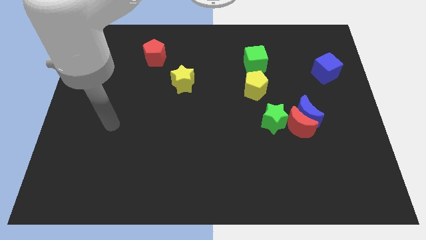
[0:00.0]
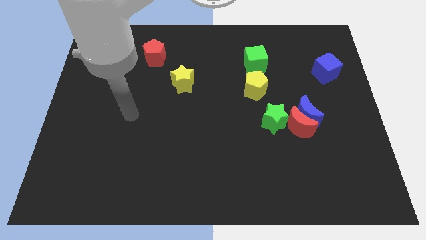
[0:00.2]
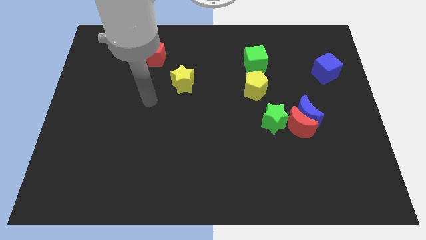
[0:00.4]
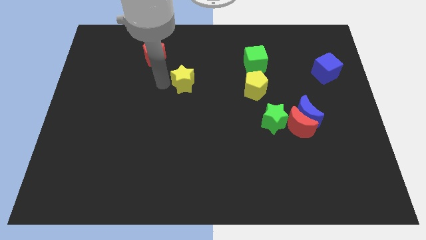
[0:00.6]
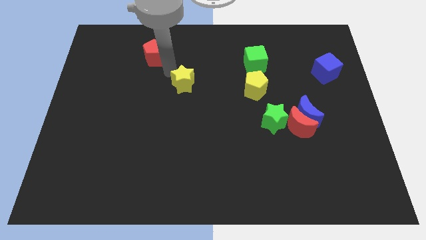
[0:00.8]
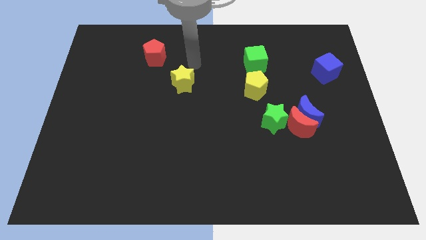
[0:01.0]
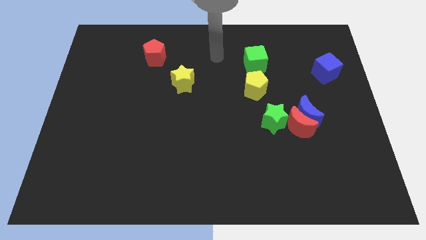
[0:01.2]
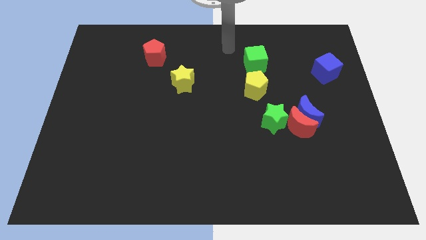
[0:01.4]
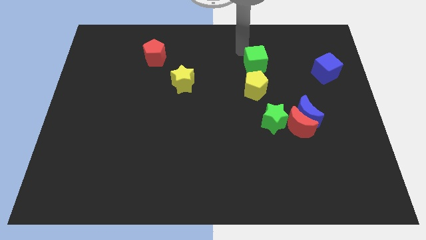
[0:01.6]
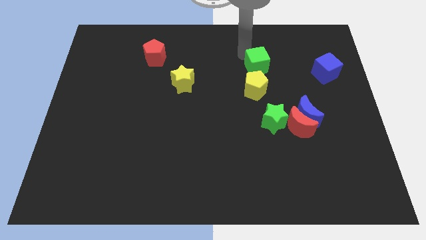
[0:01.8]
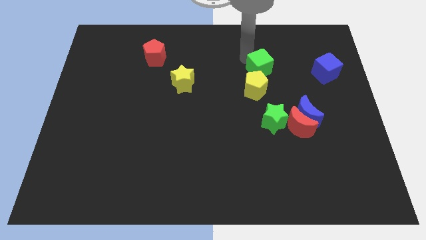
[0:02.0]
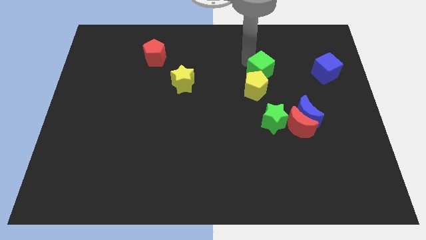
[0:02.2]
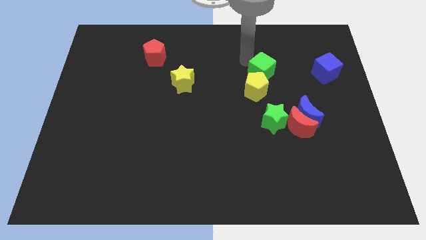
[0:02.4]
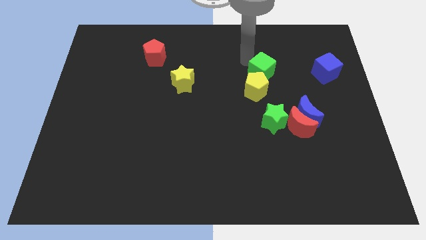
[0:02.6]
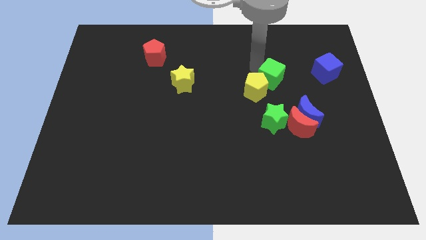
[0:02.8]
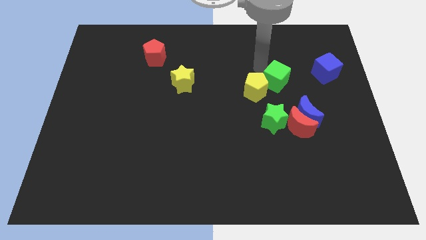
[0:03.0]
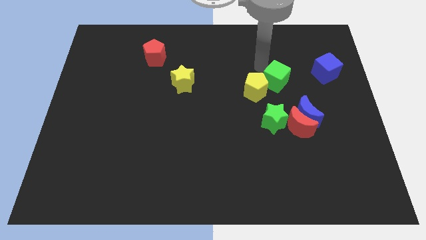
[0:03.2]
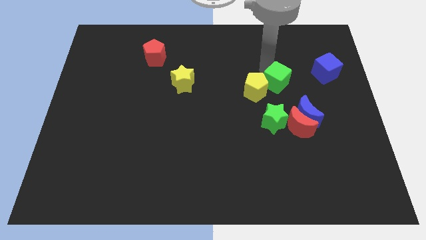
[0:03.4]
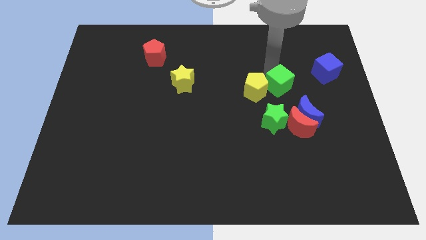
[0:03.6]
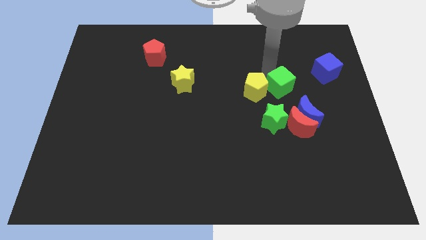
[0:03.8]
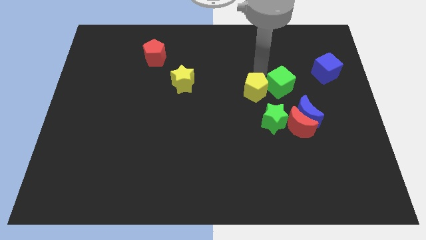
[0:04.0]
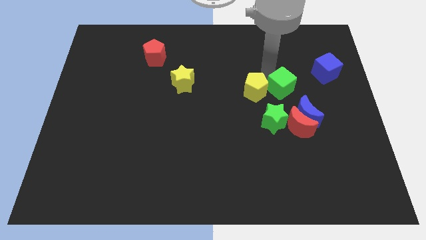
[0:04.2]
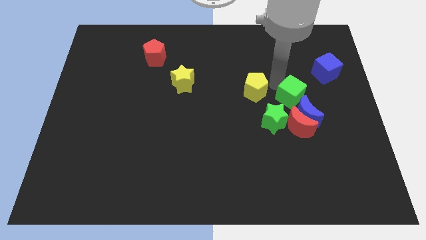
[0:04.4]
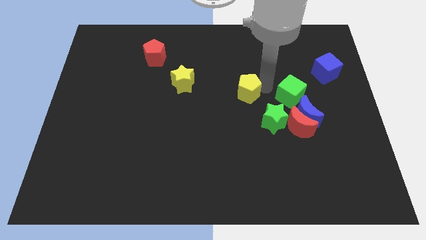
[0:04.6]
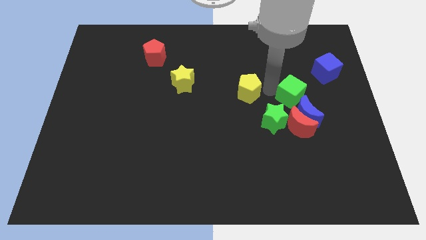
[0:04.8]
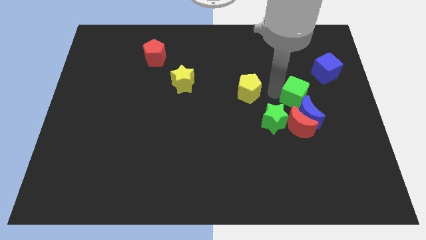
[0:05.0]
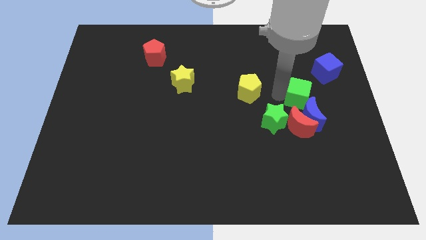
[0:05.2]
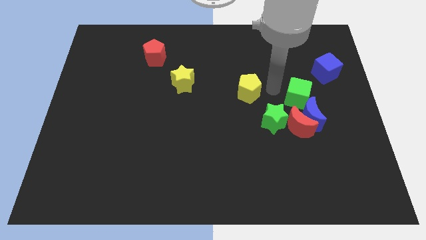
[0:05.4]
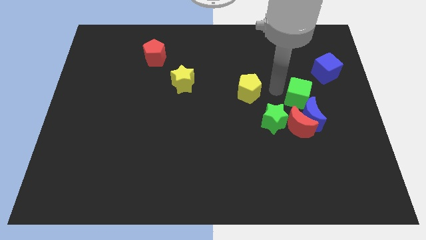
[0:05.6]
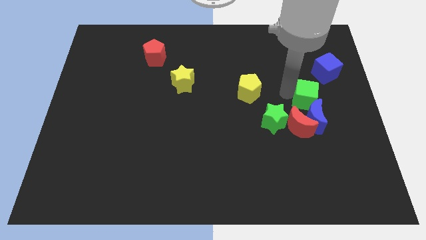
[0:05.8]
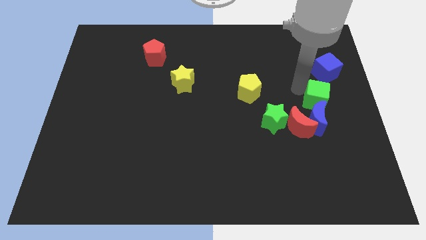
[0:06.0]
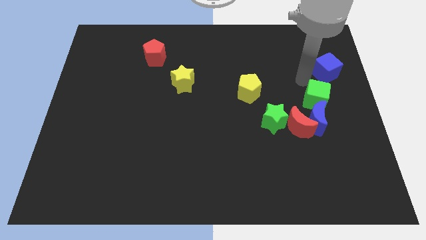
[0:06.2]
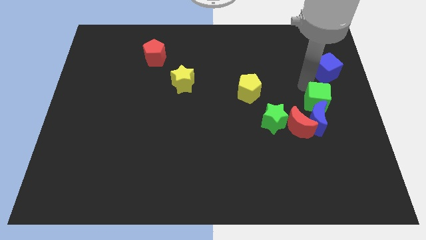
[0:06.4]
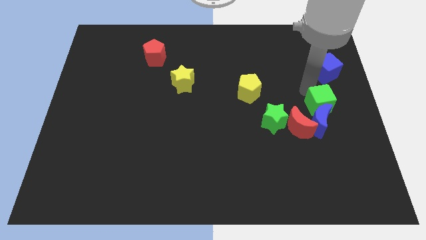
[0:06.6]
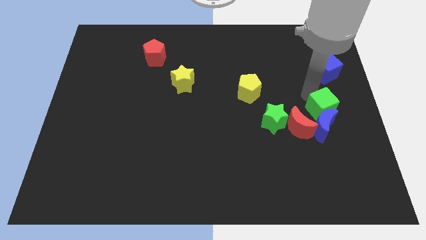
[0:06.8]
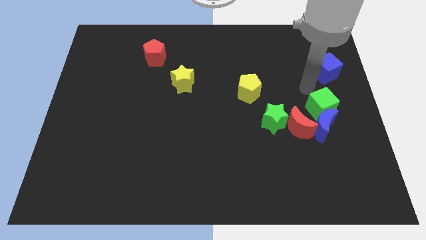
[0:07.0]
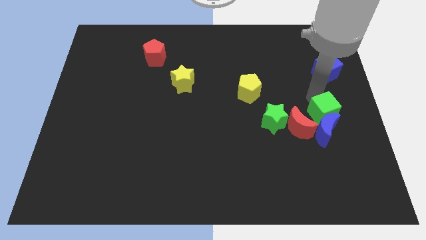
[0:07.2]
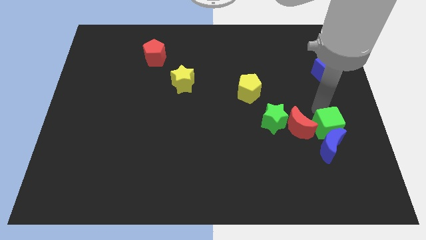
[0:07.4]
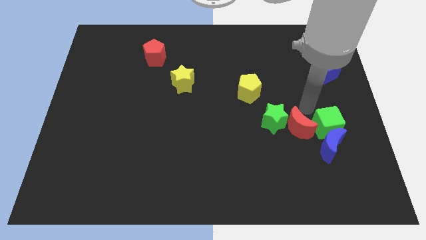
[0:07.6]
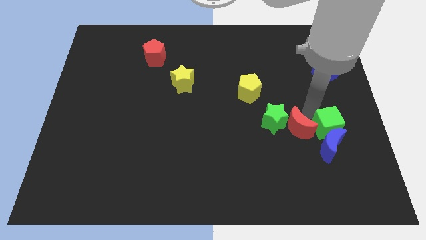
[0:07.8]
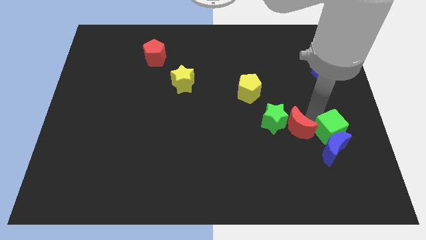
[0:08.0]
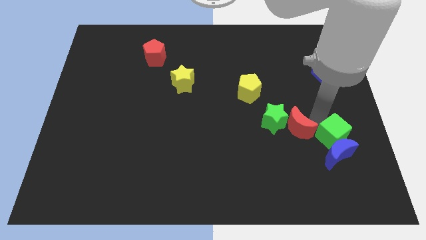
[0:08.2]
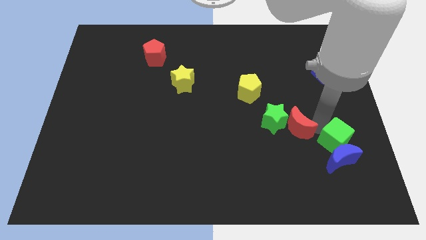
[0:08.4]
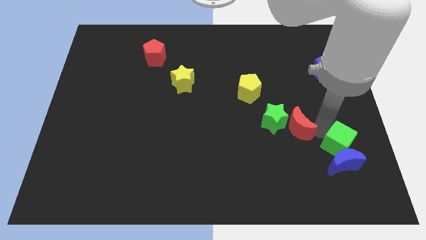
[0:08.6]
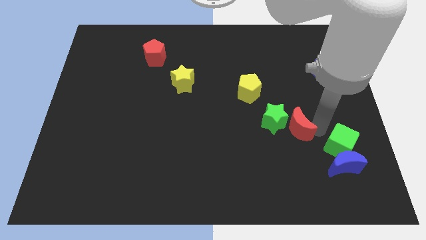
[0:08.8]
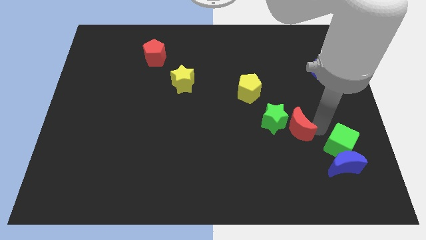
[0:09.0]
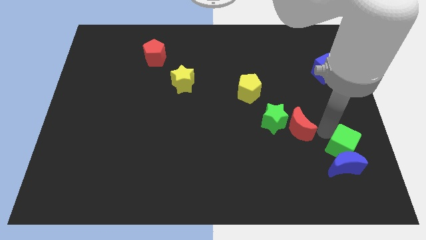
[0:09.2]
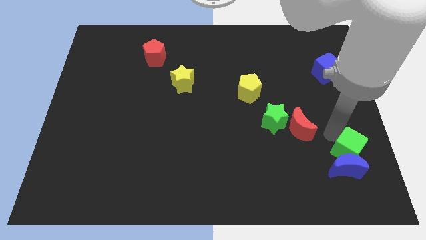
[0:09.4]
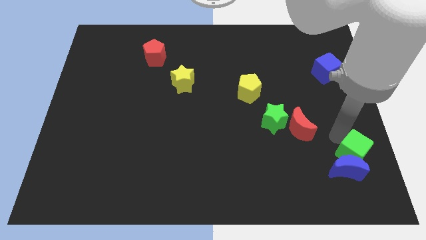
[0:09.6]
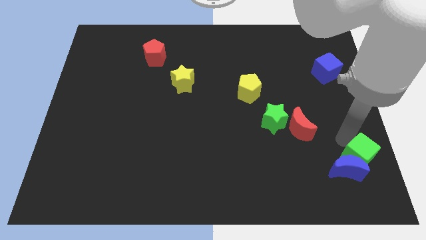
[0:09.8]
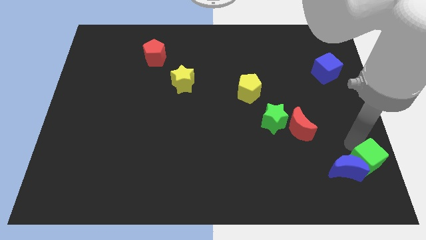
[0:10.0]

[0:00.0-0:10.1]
push the green cube to the bottom right corner

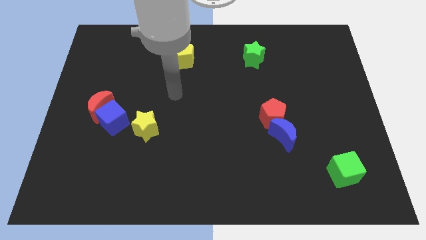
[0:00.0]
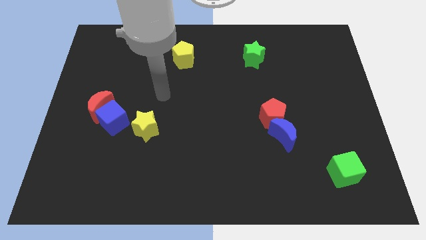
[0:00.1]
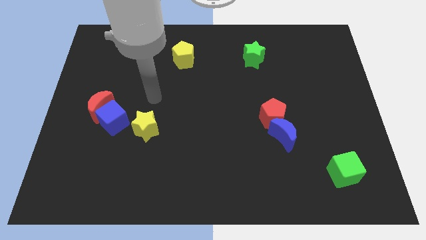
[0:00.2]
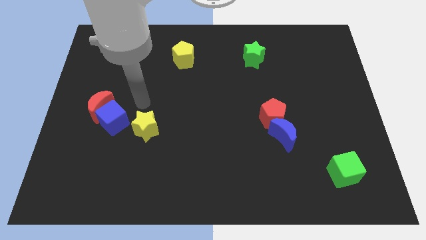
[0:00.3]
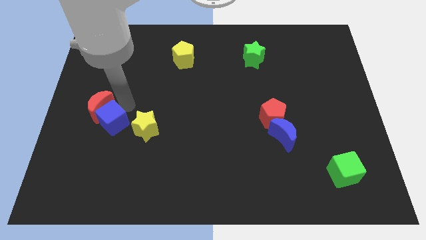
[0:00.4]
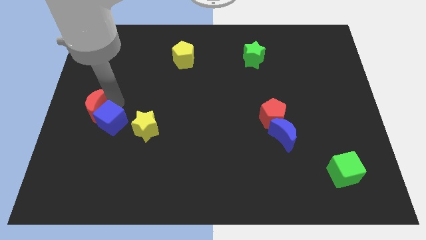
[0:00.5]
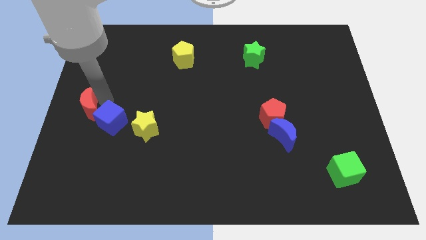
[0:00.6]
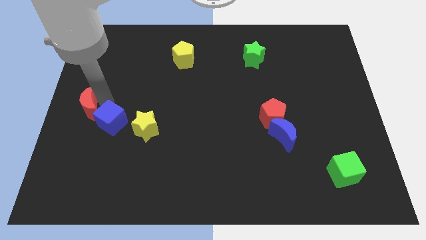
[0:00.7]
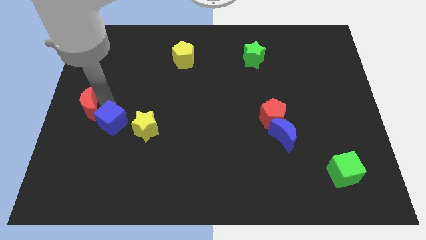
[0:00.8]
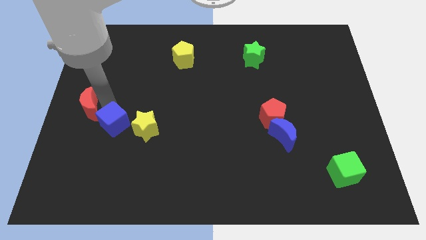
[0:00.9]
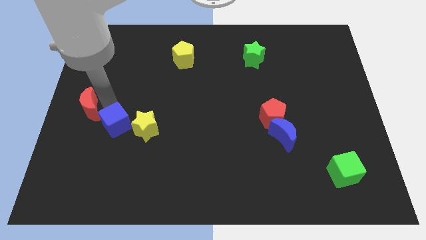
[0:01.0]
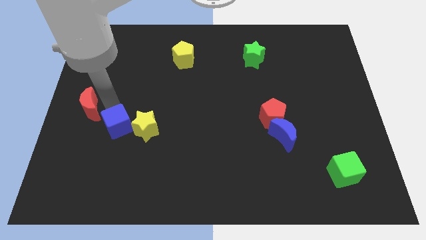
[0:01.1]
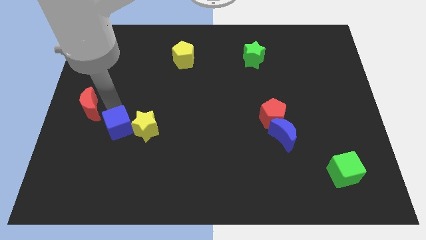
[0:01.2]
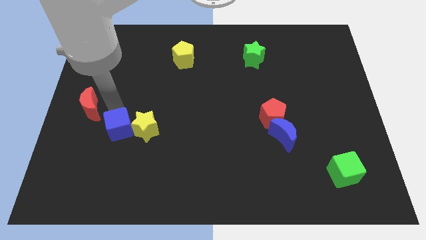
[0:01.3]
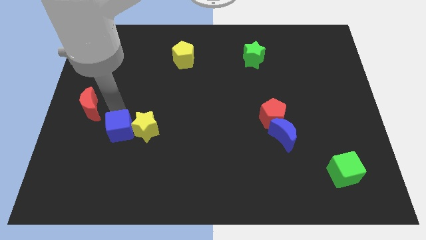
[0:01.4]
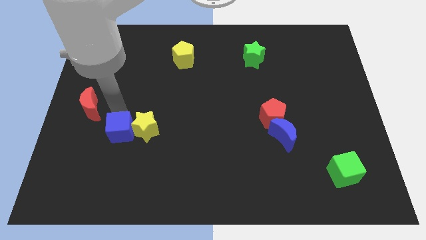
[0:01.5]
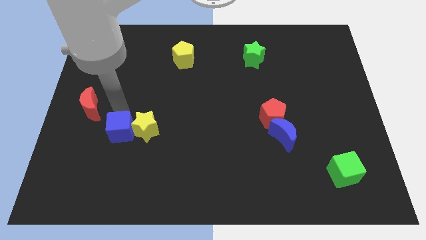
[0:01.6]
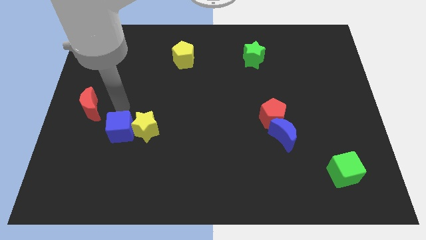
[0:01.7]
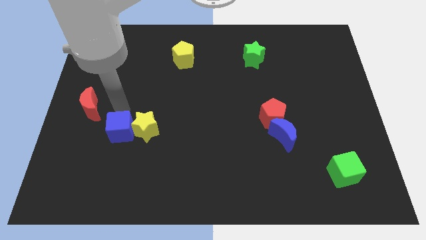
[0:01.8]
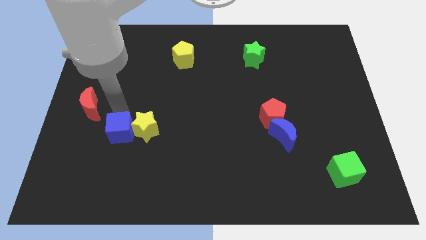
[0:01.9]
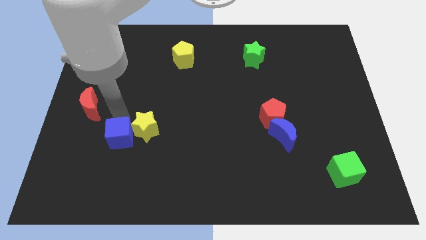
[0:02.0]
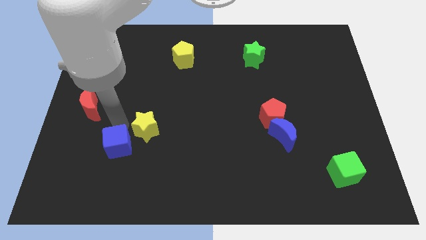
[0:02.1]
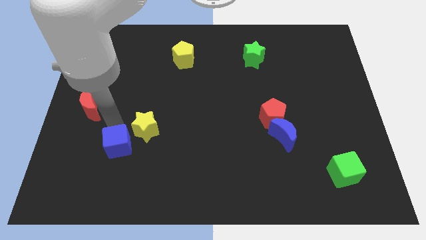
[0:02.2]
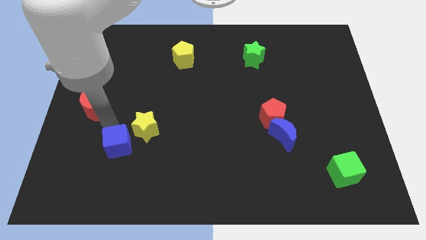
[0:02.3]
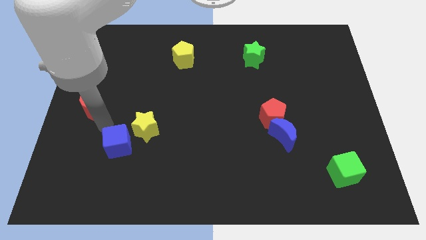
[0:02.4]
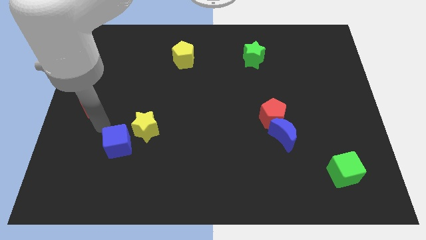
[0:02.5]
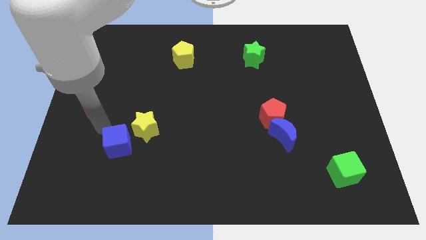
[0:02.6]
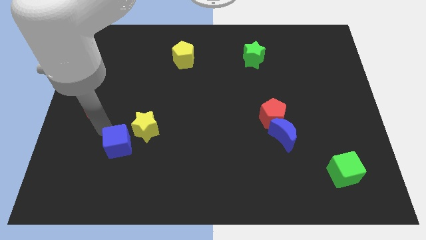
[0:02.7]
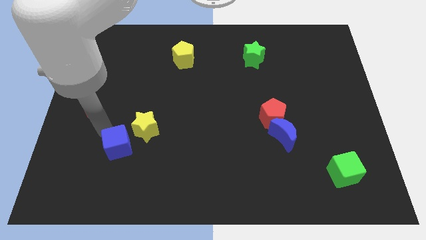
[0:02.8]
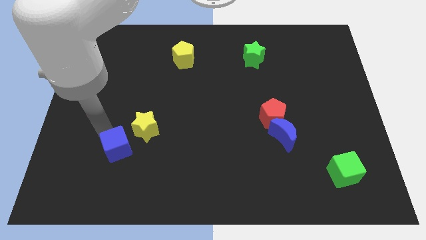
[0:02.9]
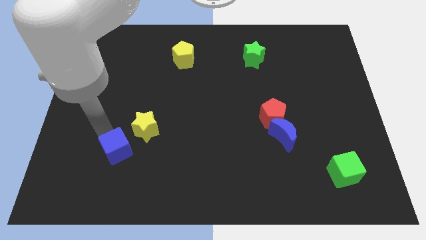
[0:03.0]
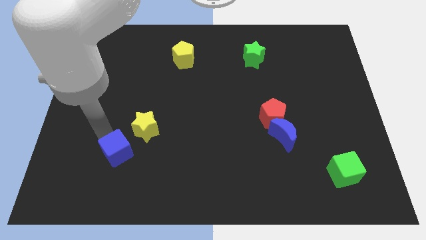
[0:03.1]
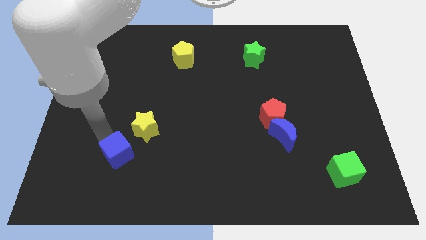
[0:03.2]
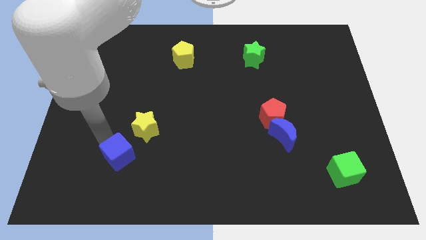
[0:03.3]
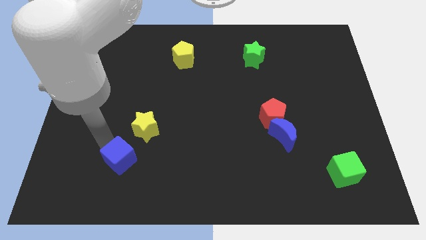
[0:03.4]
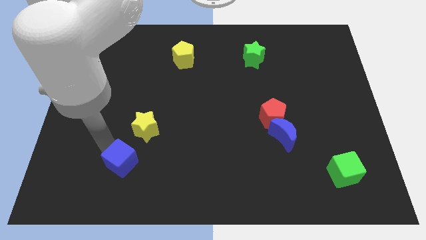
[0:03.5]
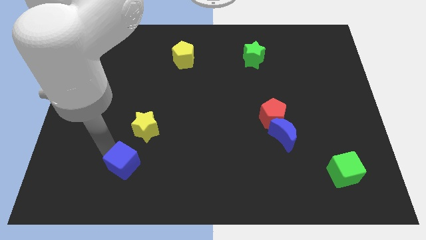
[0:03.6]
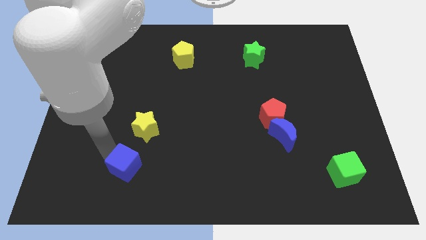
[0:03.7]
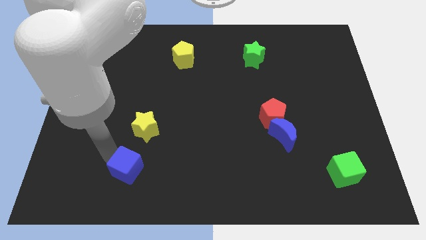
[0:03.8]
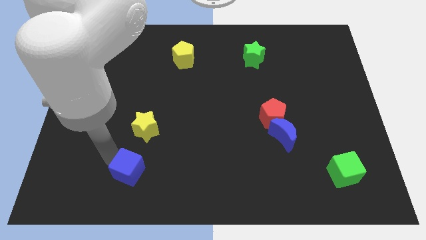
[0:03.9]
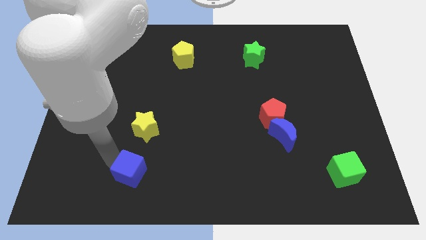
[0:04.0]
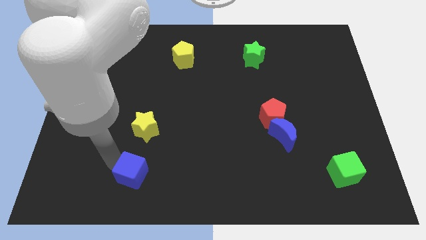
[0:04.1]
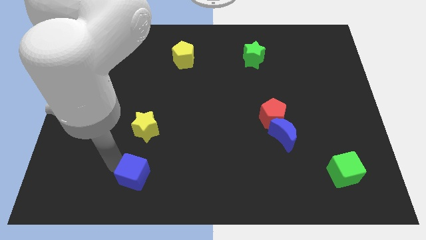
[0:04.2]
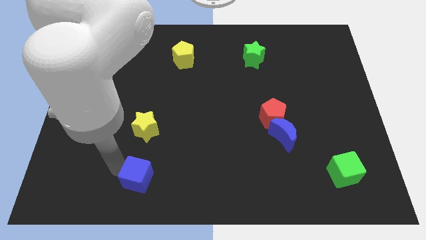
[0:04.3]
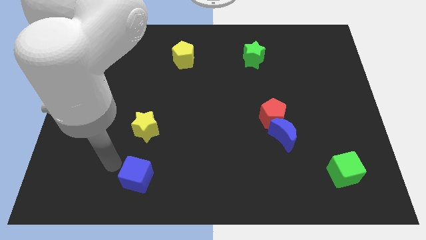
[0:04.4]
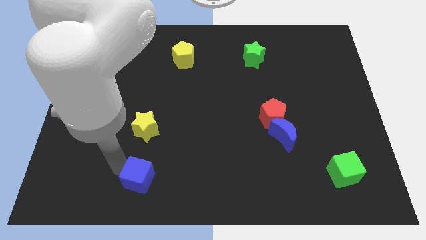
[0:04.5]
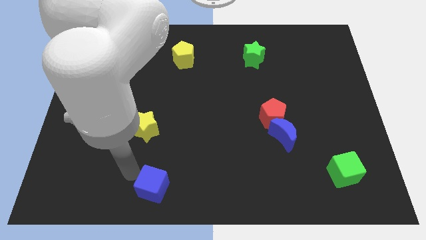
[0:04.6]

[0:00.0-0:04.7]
move the blue cube to the bottom
